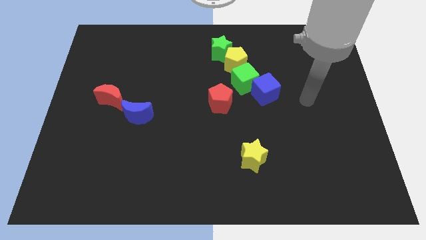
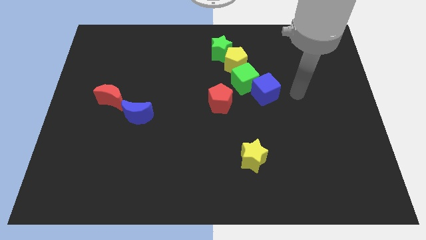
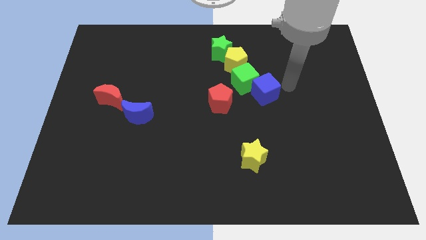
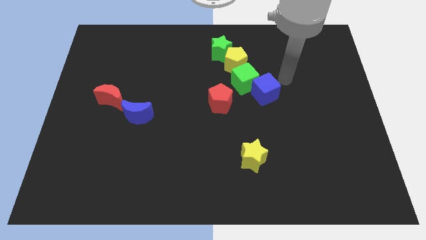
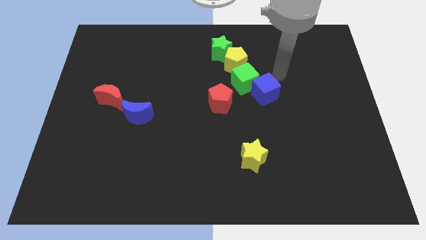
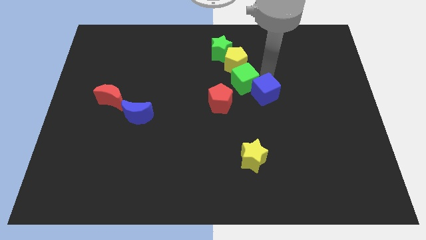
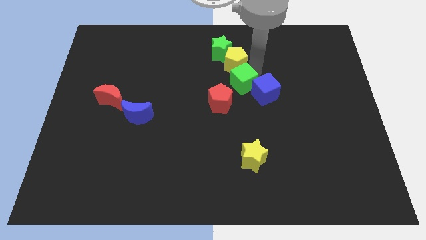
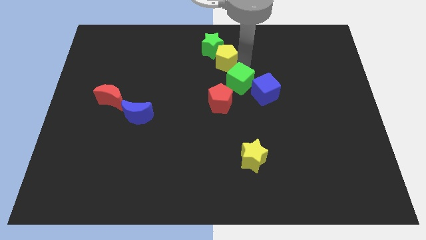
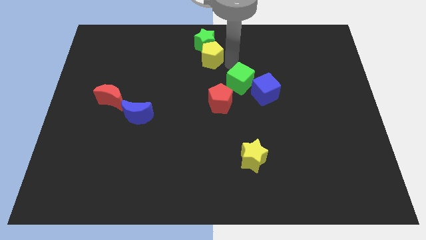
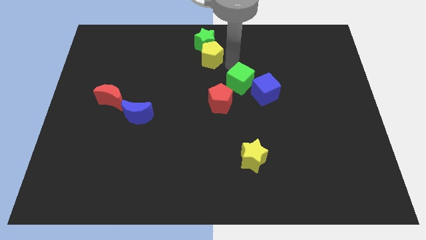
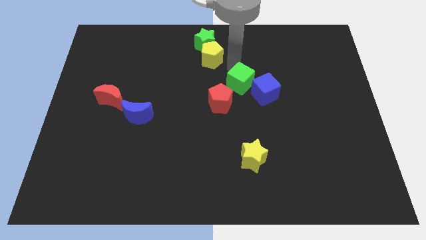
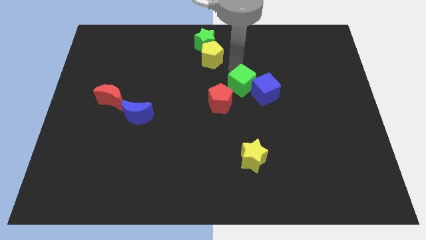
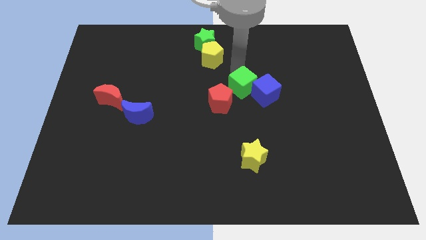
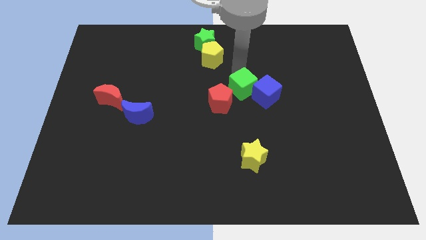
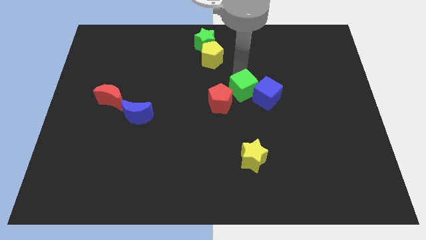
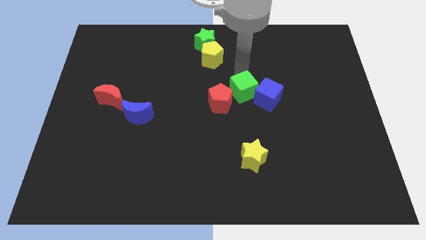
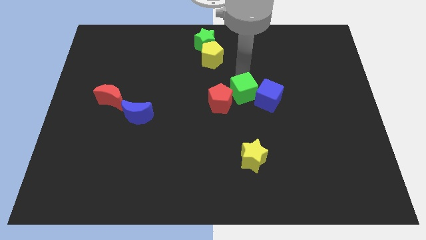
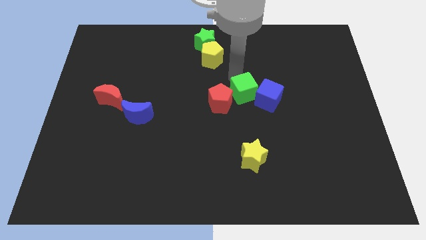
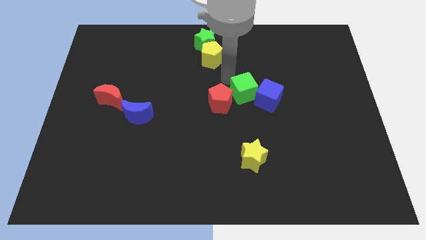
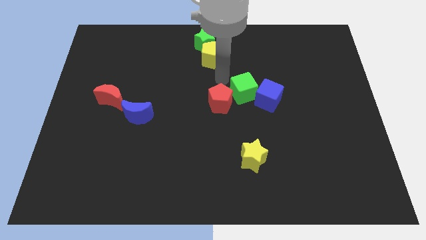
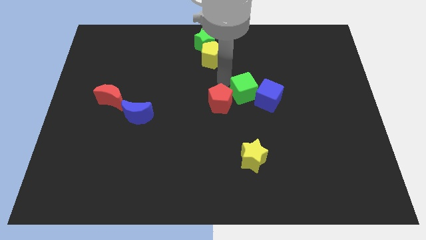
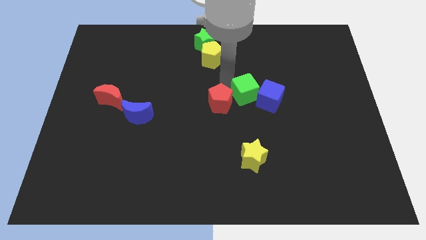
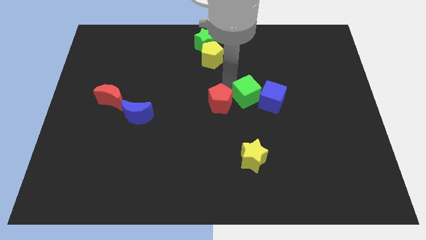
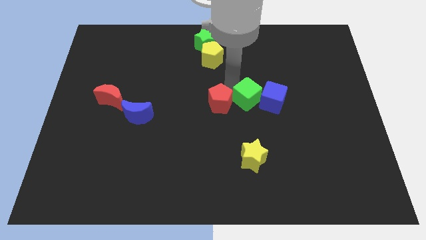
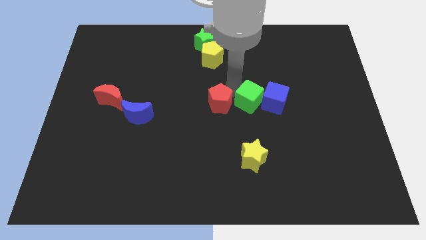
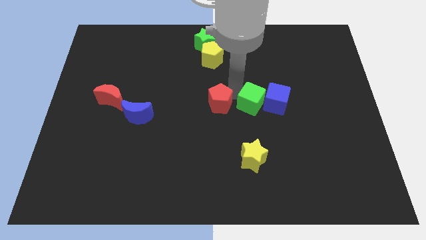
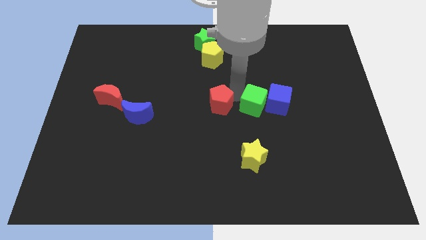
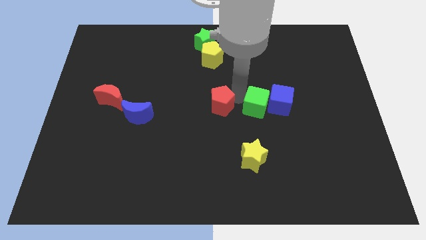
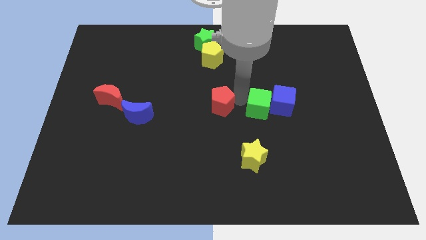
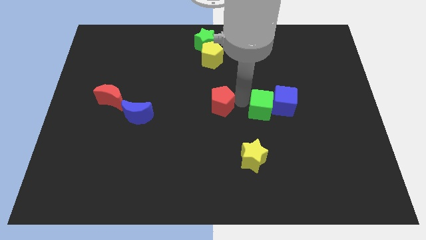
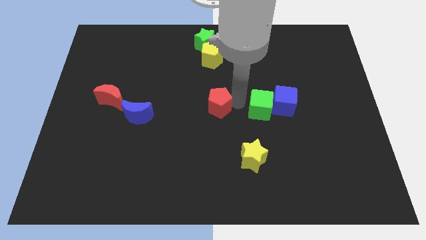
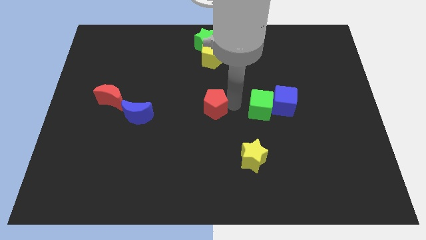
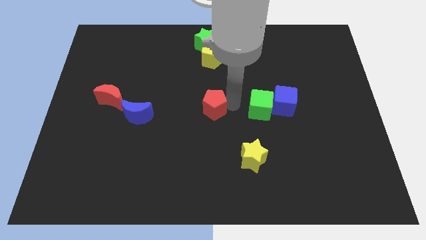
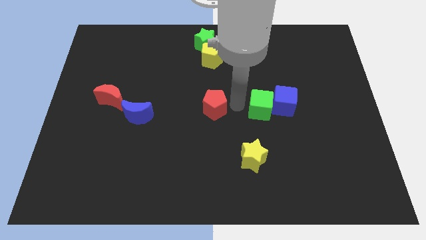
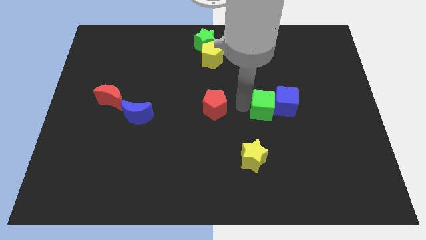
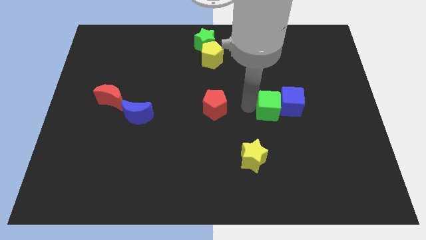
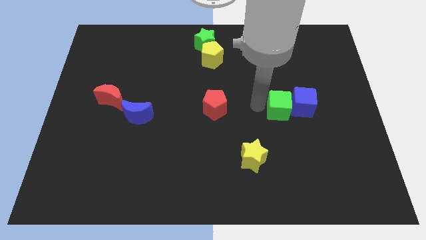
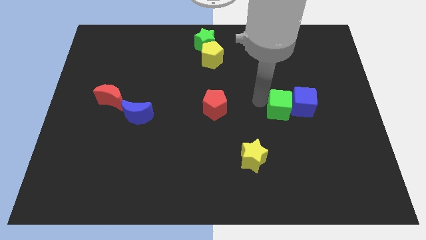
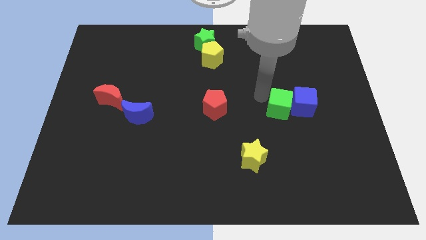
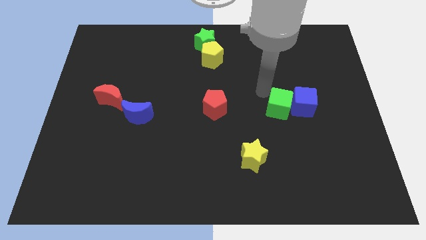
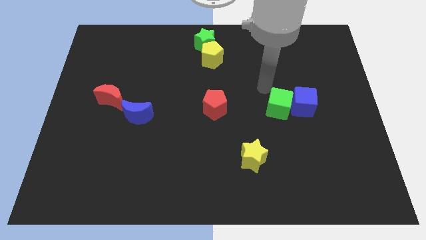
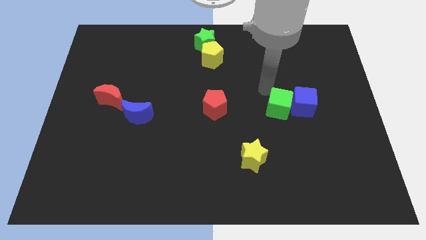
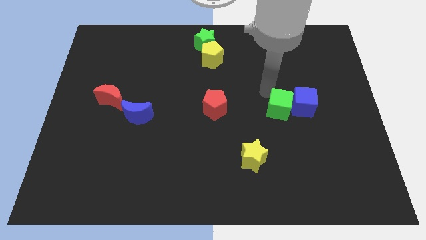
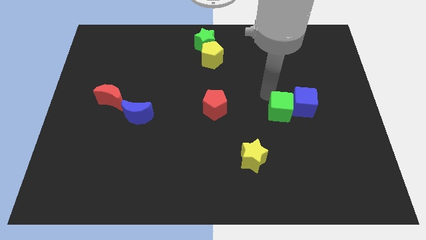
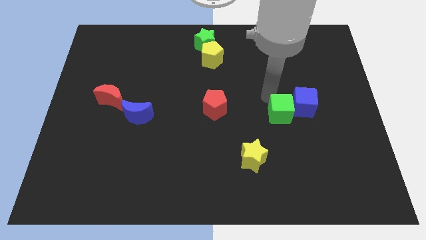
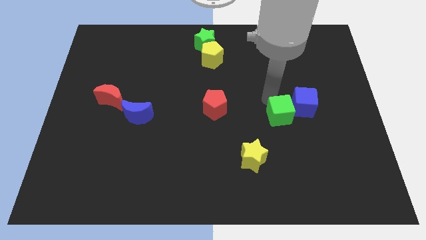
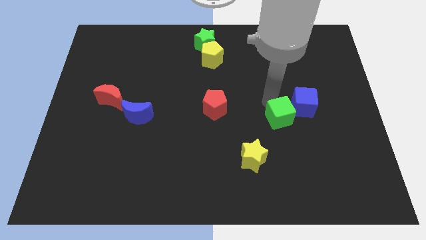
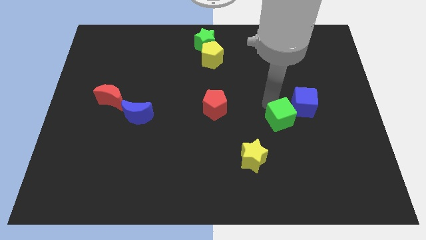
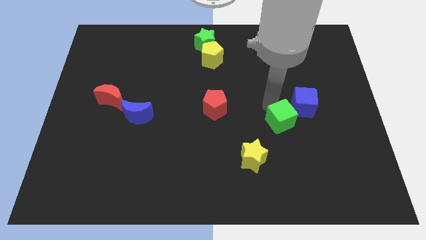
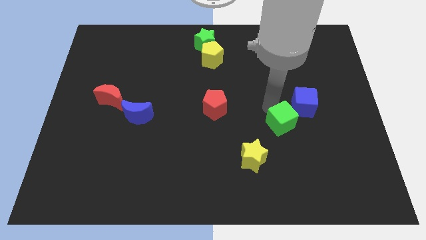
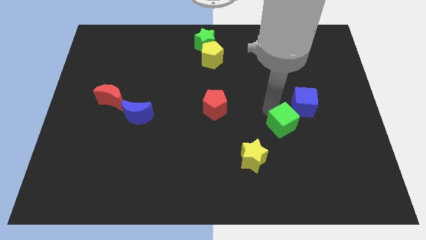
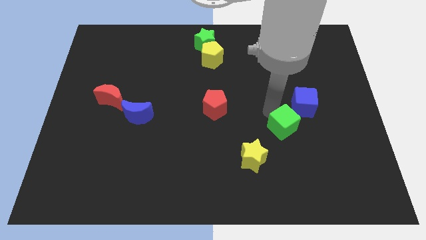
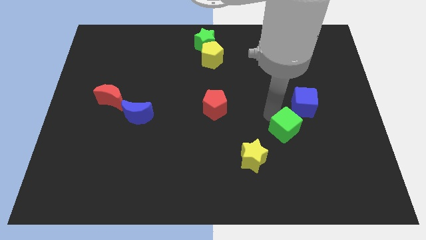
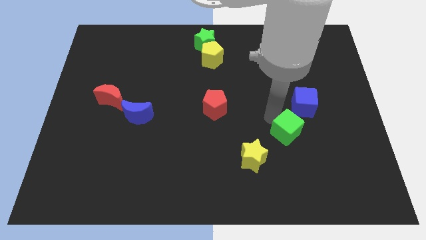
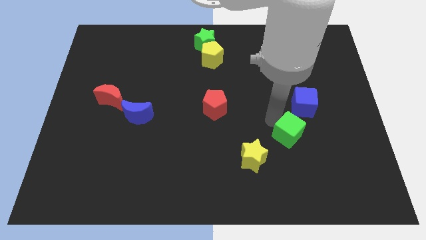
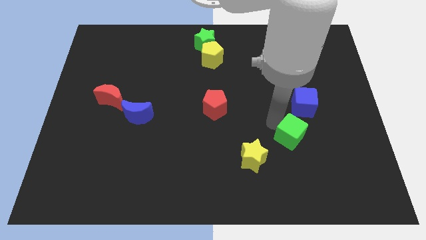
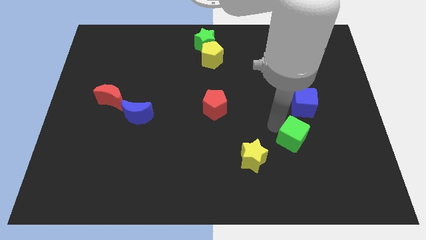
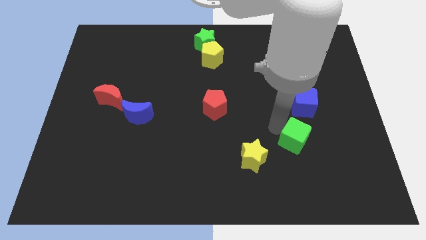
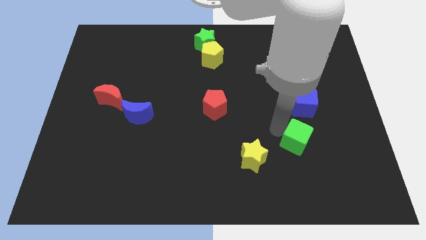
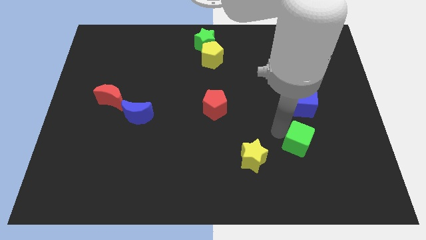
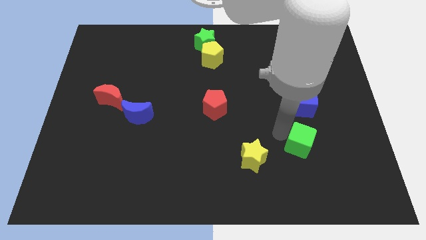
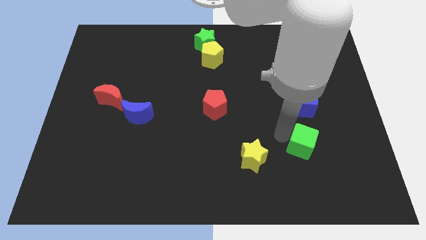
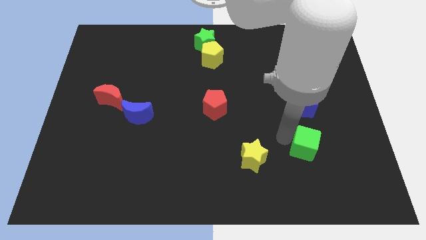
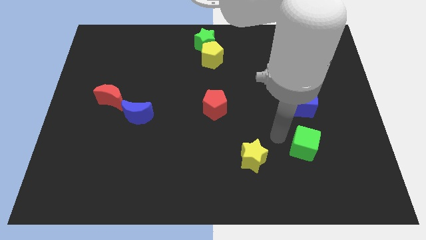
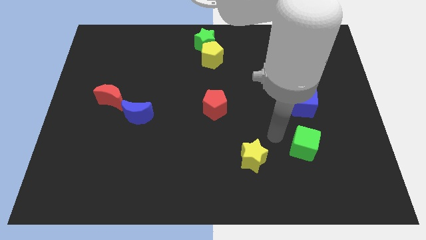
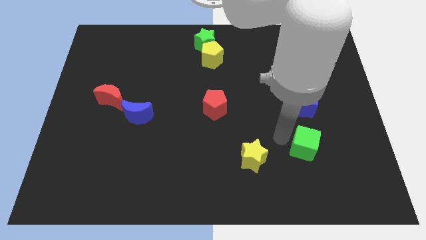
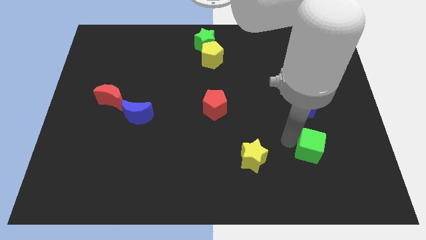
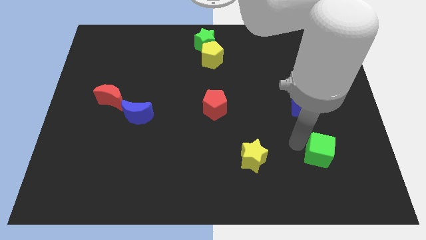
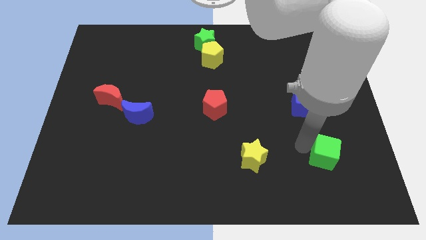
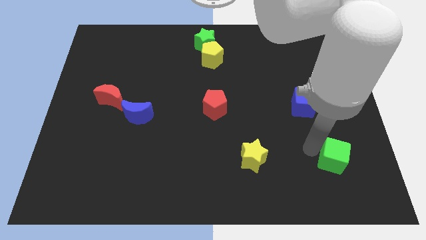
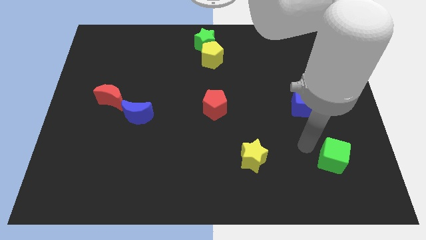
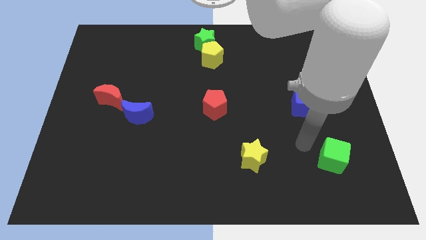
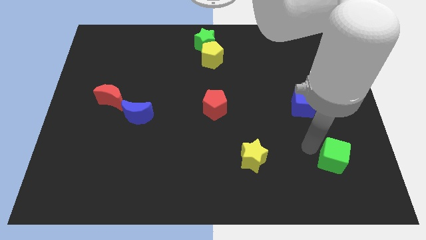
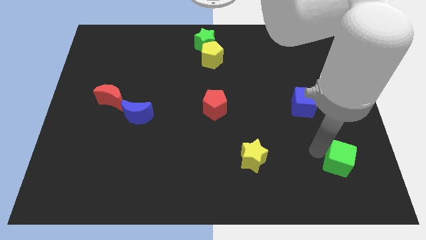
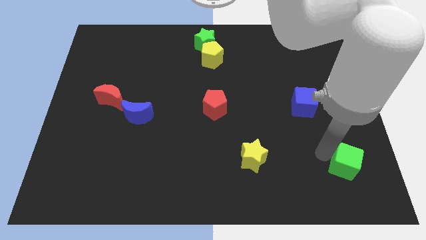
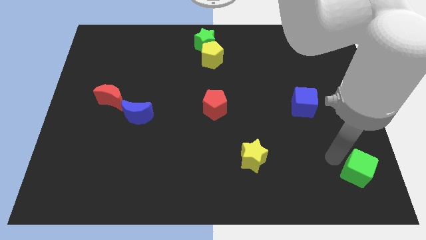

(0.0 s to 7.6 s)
slide the green cube to the bottom right corner
